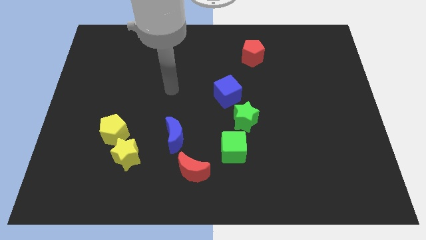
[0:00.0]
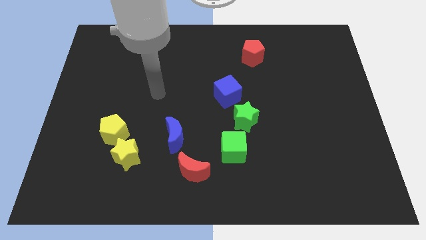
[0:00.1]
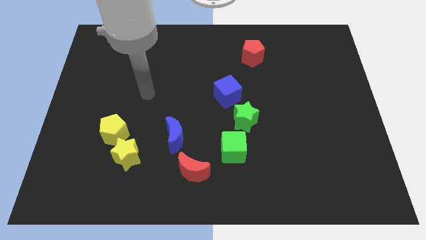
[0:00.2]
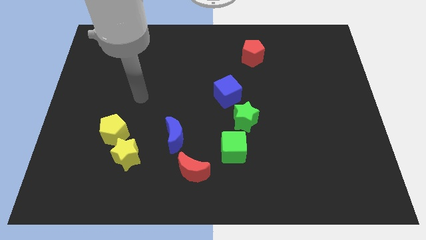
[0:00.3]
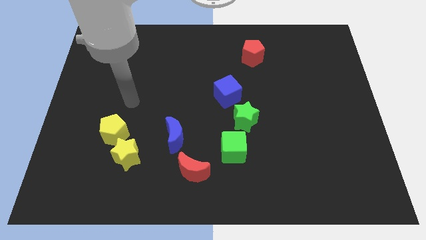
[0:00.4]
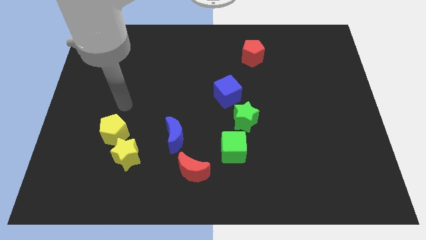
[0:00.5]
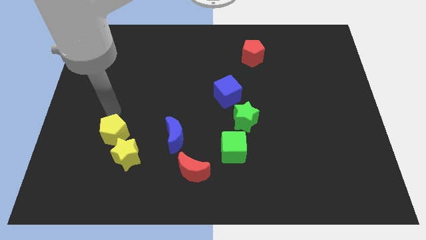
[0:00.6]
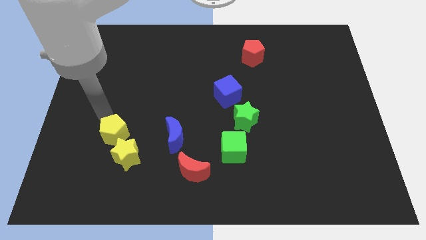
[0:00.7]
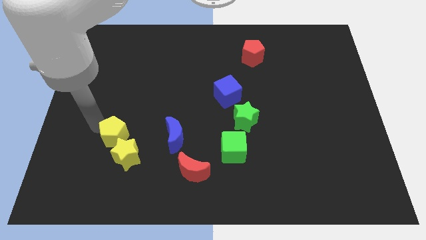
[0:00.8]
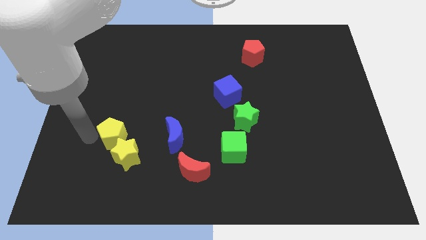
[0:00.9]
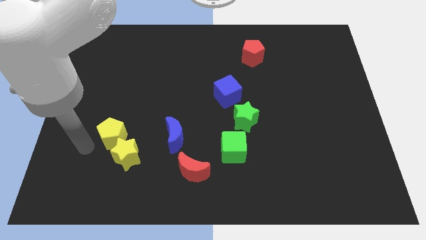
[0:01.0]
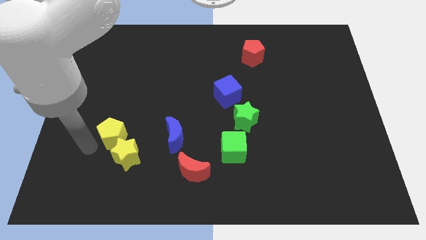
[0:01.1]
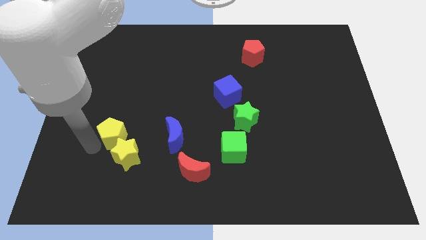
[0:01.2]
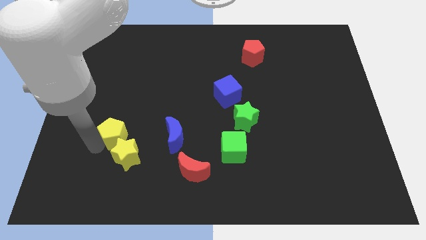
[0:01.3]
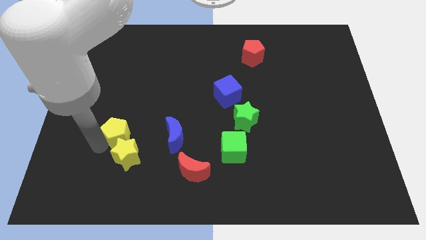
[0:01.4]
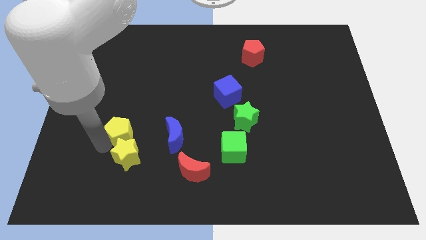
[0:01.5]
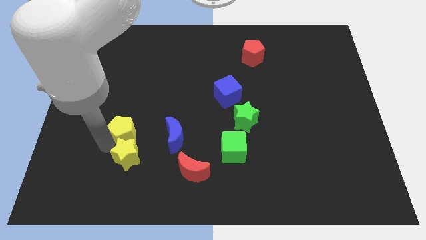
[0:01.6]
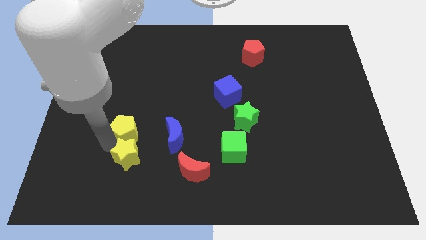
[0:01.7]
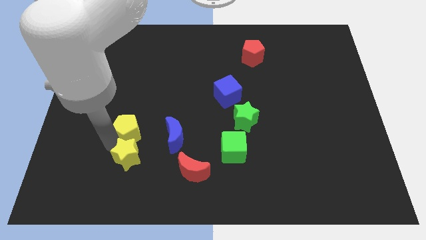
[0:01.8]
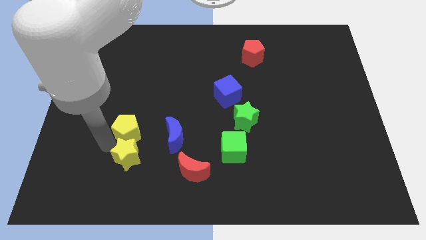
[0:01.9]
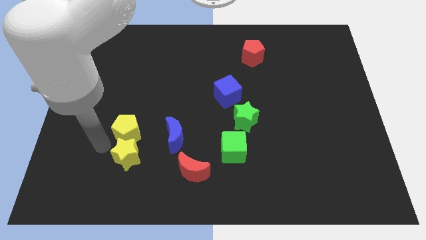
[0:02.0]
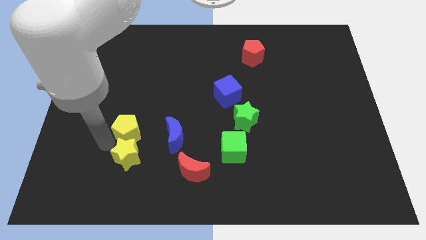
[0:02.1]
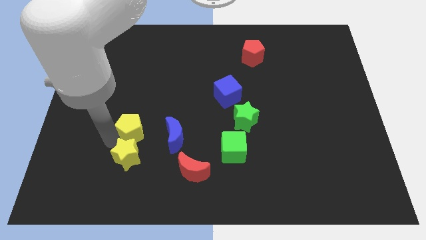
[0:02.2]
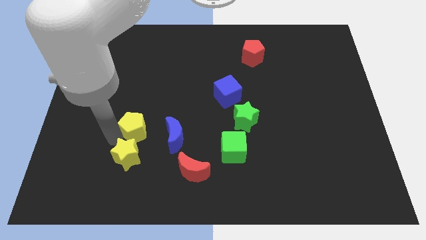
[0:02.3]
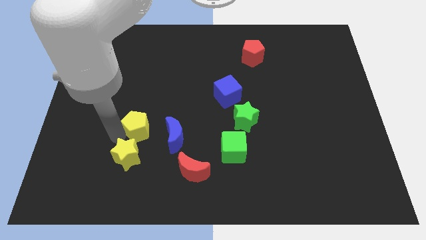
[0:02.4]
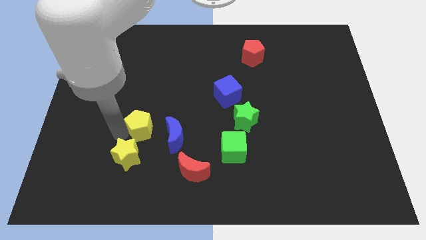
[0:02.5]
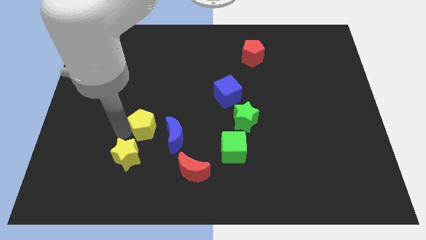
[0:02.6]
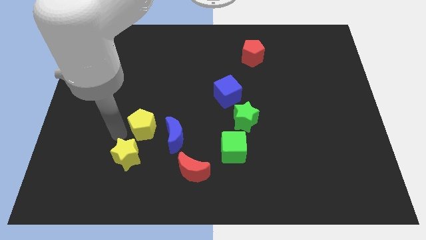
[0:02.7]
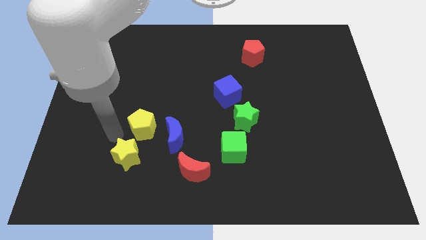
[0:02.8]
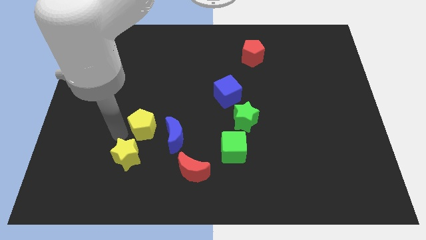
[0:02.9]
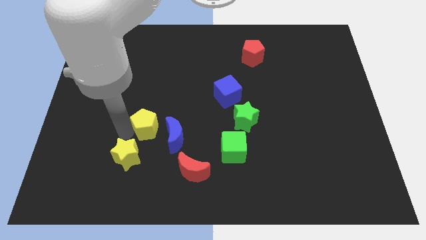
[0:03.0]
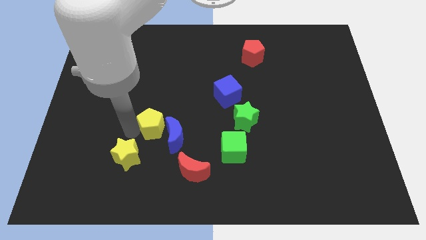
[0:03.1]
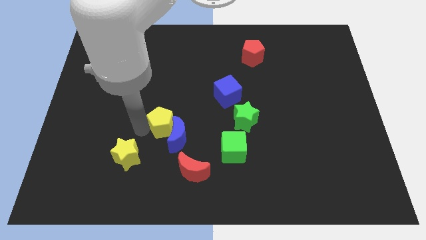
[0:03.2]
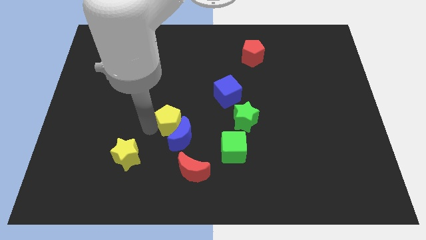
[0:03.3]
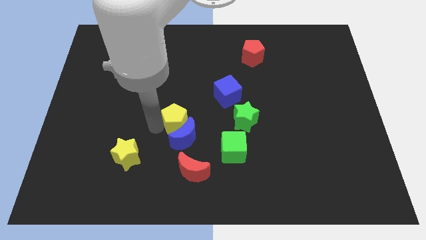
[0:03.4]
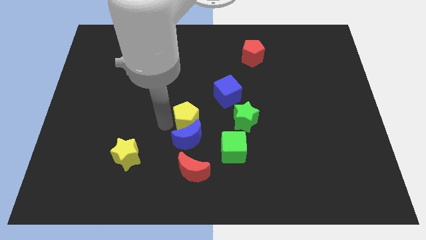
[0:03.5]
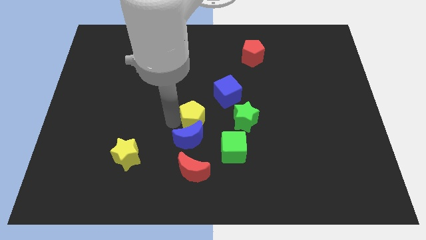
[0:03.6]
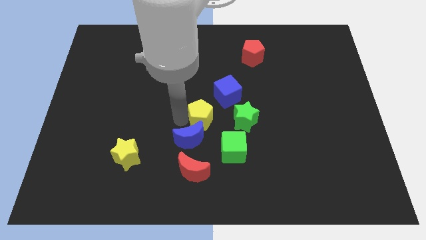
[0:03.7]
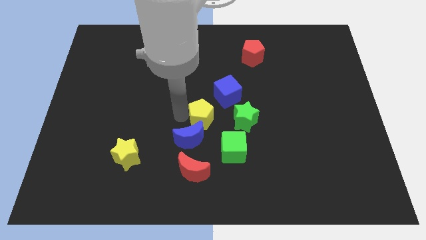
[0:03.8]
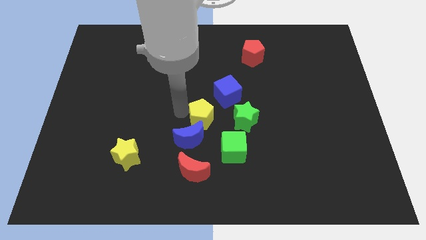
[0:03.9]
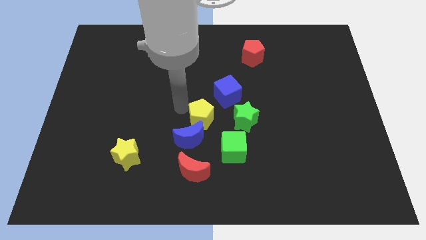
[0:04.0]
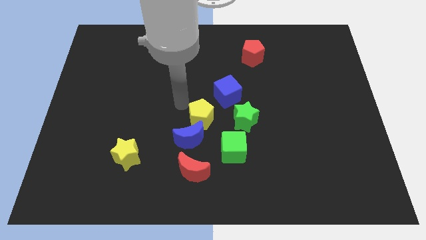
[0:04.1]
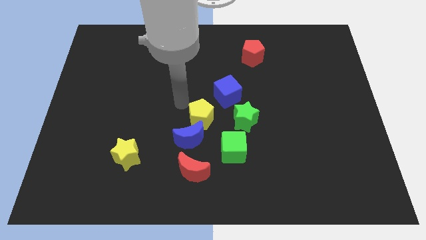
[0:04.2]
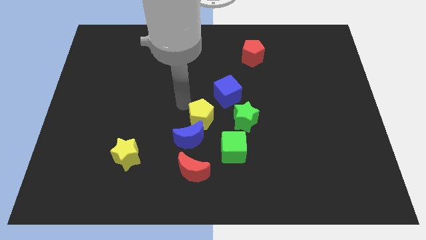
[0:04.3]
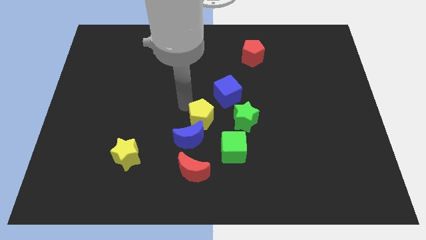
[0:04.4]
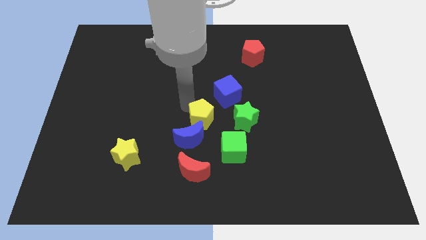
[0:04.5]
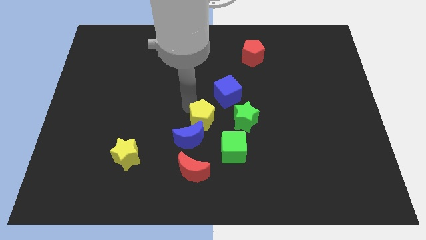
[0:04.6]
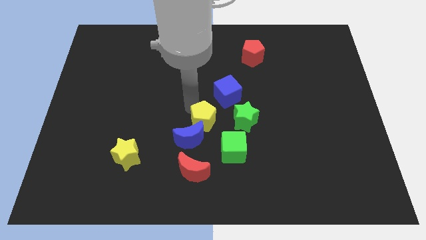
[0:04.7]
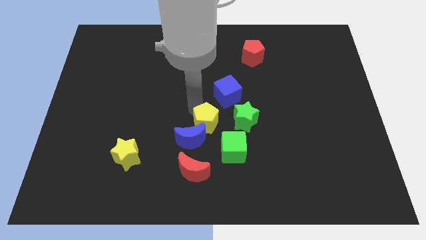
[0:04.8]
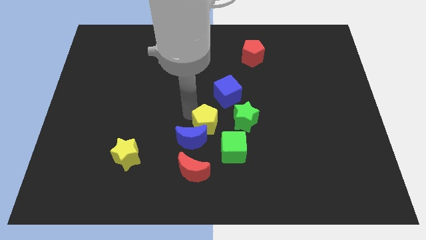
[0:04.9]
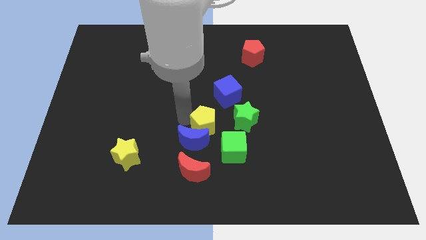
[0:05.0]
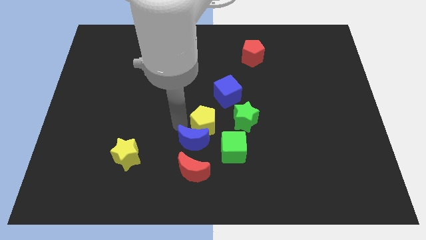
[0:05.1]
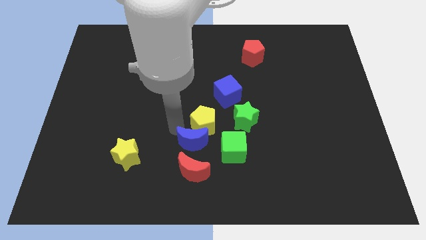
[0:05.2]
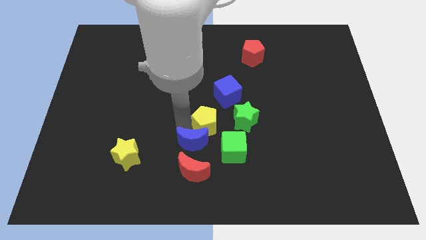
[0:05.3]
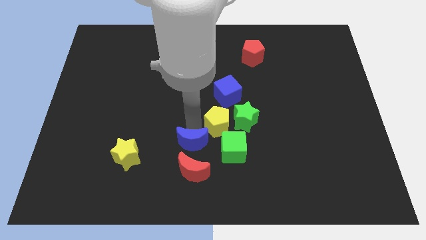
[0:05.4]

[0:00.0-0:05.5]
push the yellow pentagon to the green star

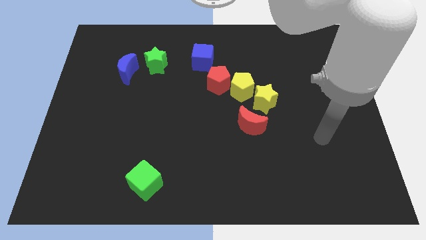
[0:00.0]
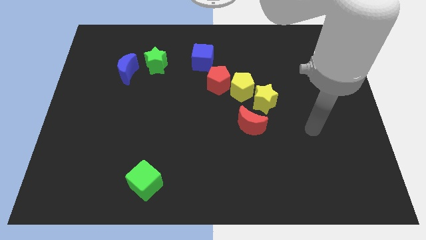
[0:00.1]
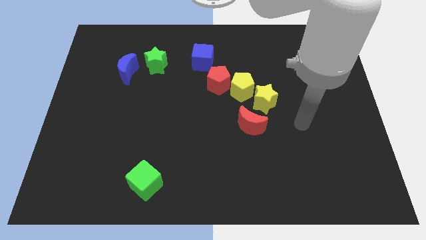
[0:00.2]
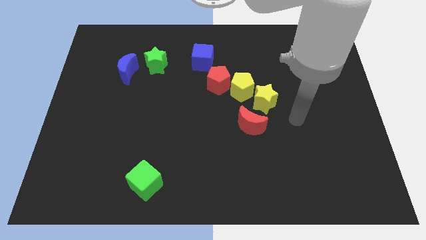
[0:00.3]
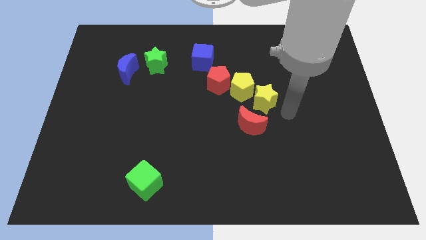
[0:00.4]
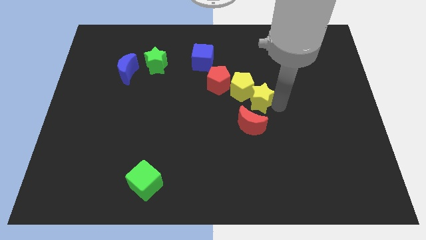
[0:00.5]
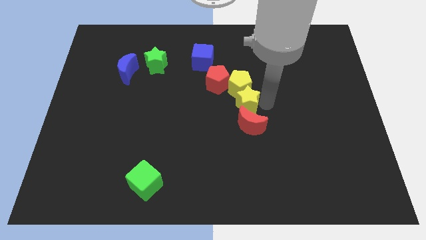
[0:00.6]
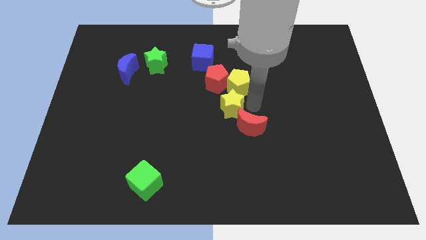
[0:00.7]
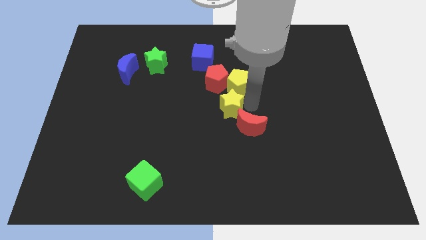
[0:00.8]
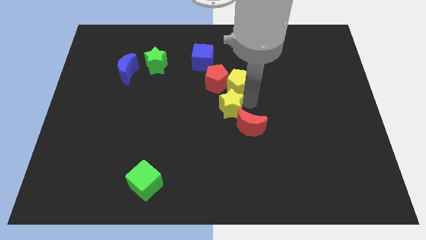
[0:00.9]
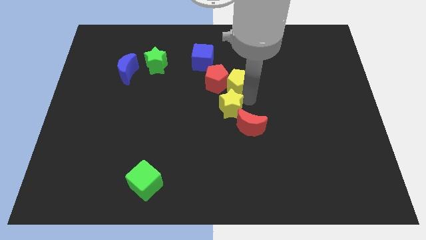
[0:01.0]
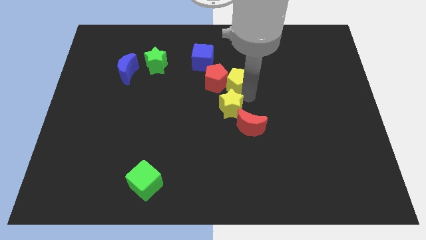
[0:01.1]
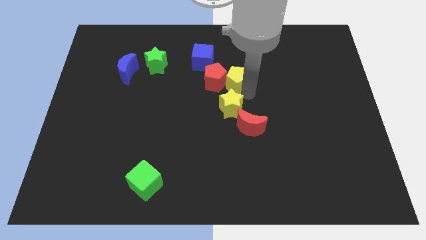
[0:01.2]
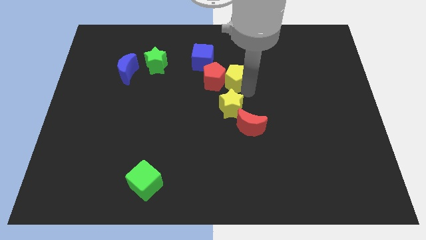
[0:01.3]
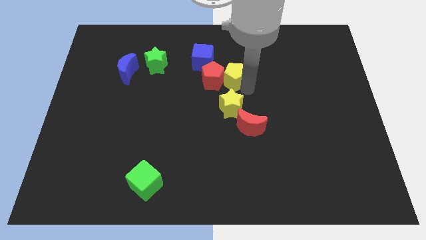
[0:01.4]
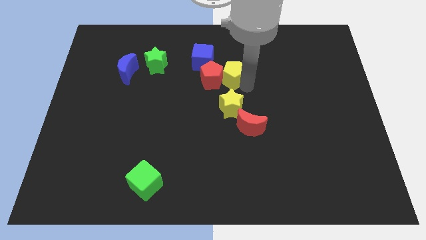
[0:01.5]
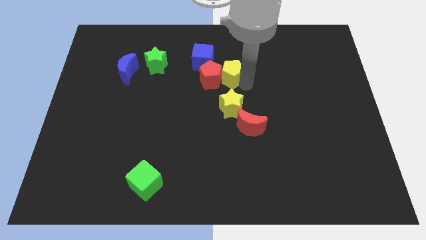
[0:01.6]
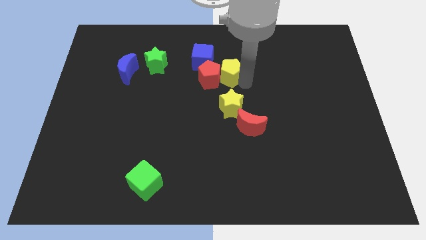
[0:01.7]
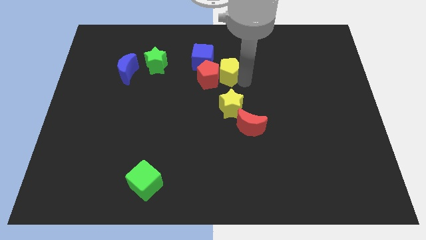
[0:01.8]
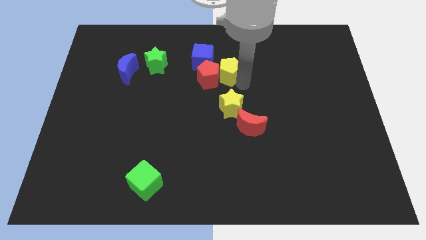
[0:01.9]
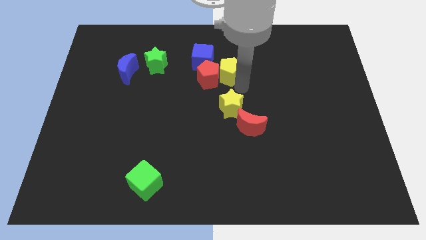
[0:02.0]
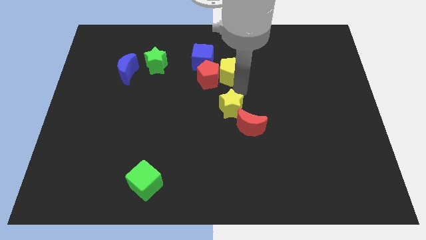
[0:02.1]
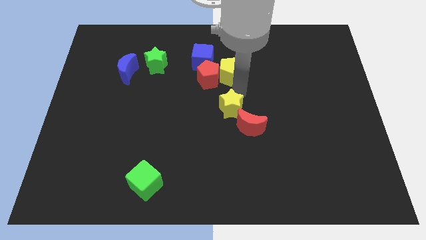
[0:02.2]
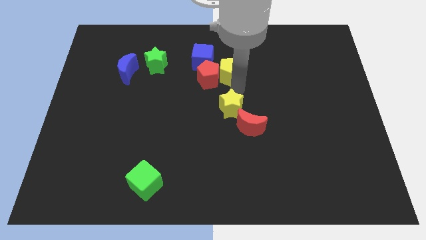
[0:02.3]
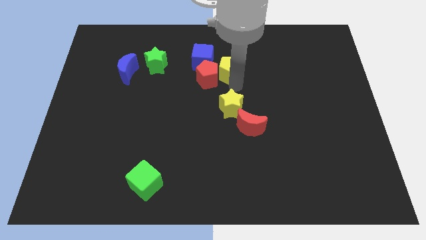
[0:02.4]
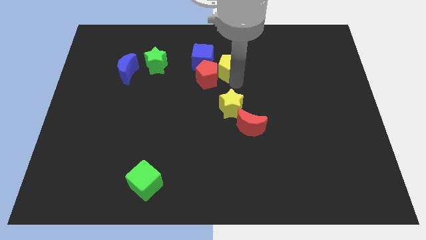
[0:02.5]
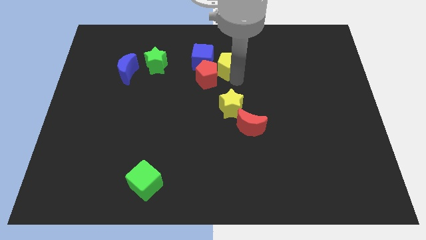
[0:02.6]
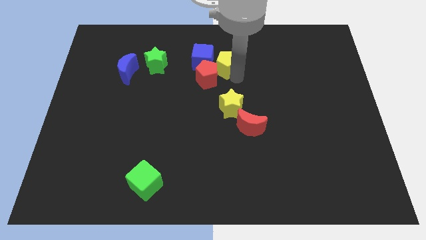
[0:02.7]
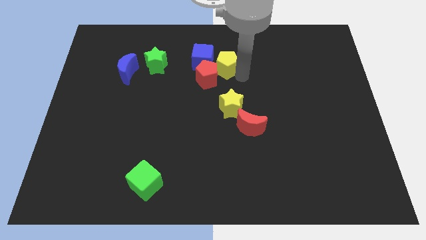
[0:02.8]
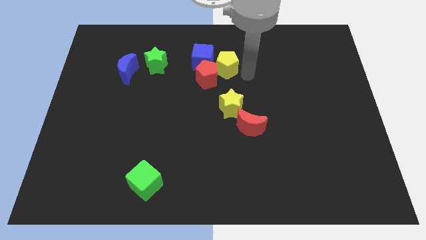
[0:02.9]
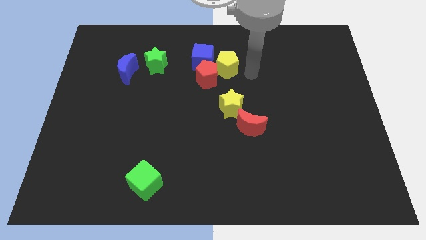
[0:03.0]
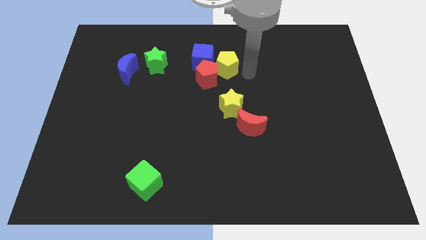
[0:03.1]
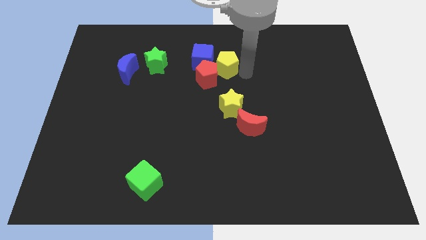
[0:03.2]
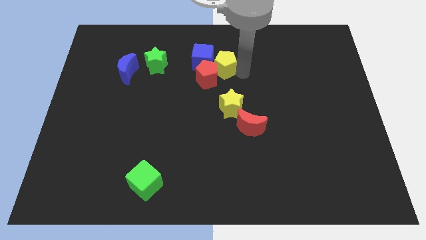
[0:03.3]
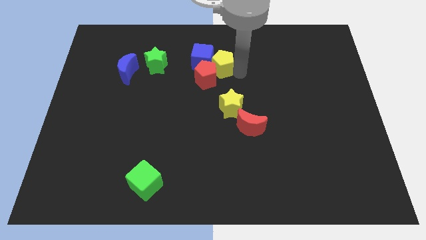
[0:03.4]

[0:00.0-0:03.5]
move the yellow pentagon close to the blue cube
